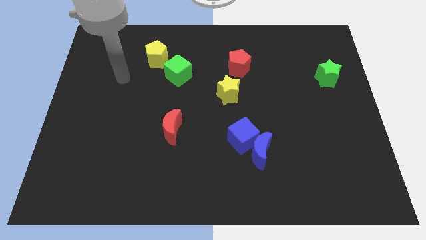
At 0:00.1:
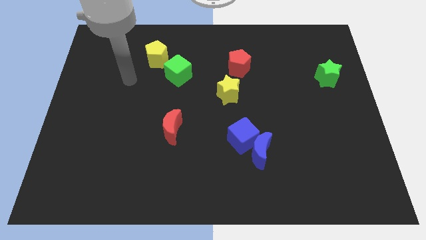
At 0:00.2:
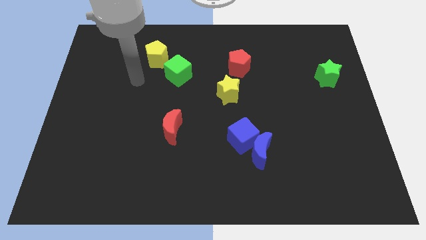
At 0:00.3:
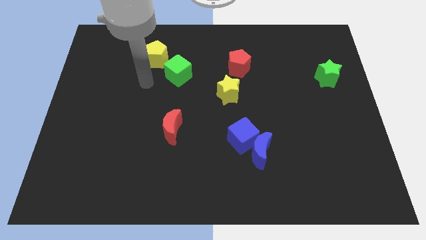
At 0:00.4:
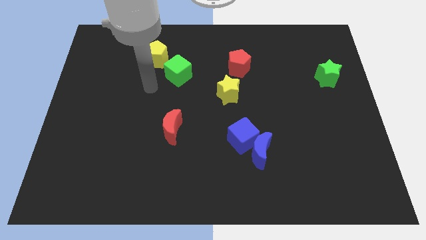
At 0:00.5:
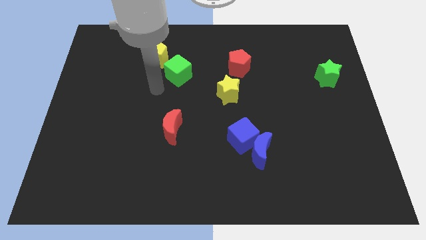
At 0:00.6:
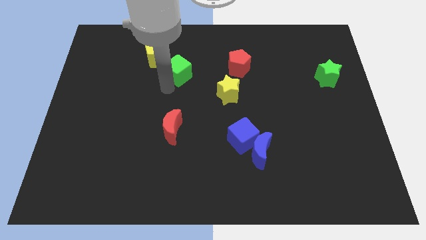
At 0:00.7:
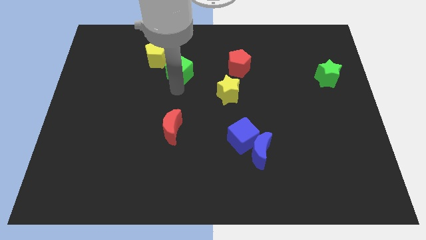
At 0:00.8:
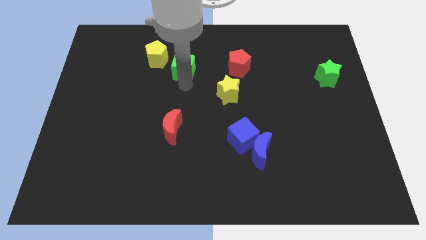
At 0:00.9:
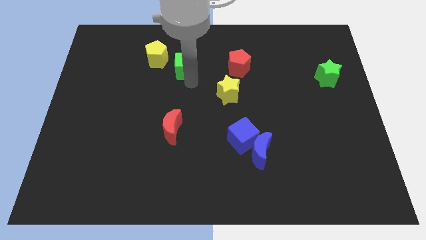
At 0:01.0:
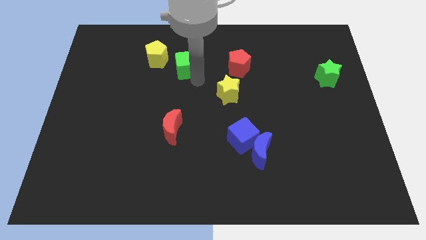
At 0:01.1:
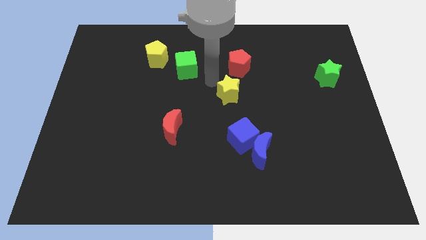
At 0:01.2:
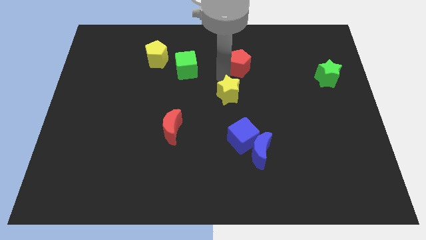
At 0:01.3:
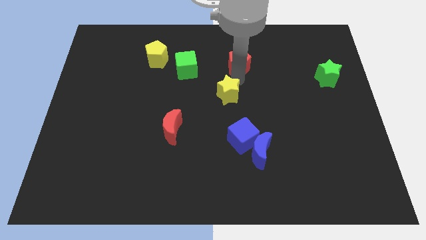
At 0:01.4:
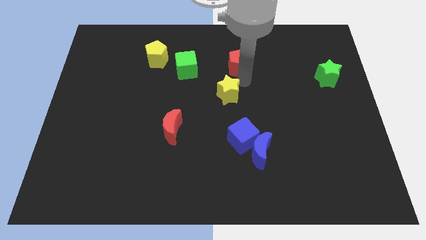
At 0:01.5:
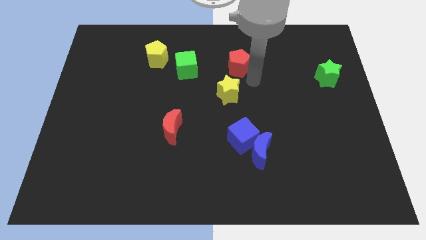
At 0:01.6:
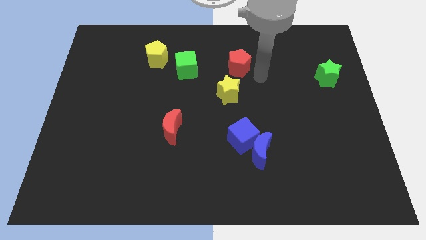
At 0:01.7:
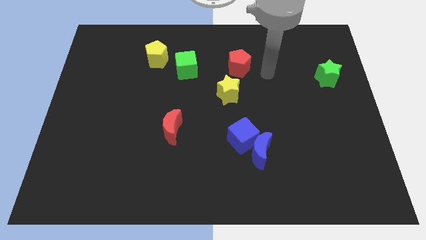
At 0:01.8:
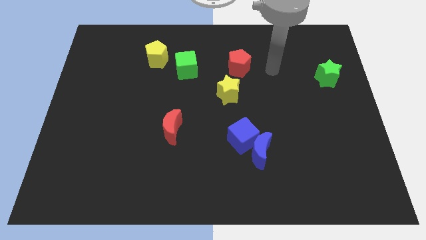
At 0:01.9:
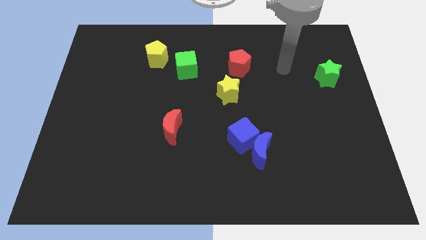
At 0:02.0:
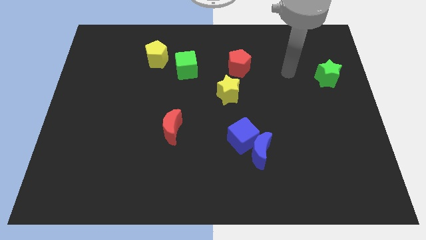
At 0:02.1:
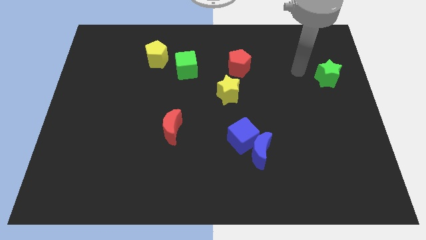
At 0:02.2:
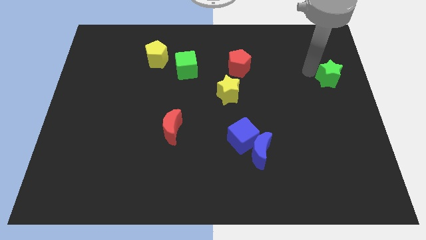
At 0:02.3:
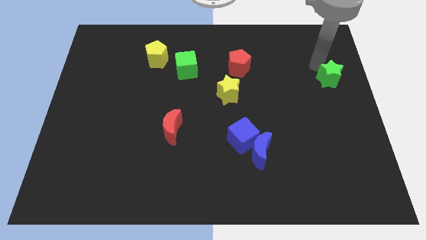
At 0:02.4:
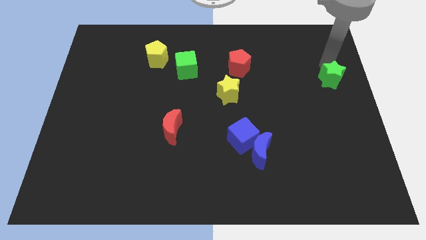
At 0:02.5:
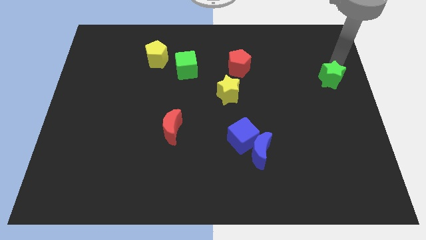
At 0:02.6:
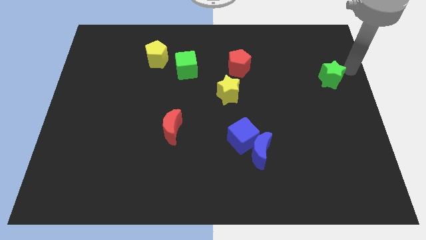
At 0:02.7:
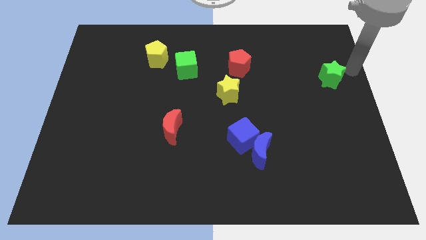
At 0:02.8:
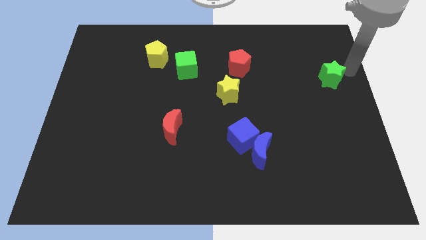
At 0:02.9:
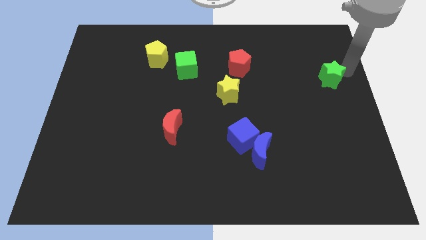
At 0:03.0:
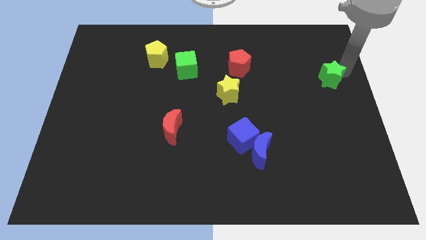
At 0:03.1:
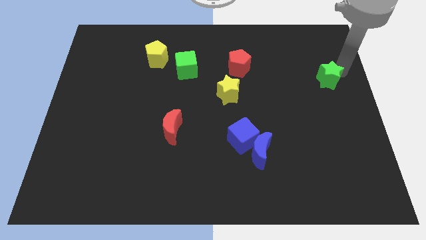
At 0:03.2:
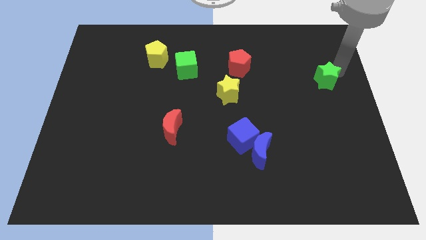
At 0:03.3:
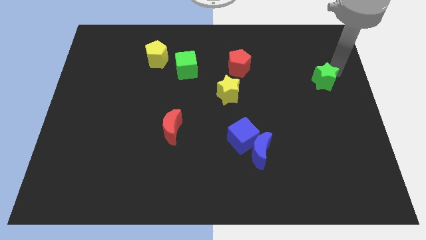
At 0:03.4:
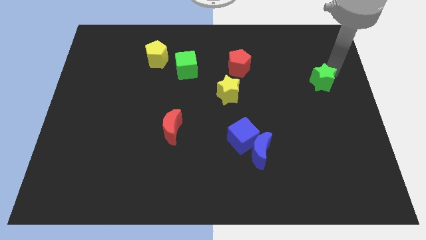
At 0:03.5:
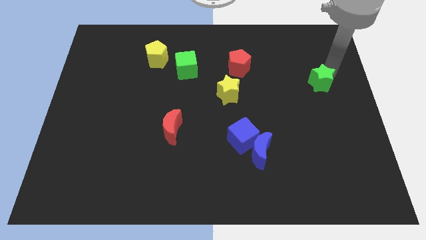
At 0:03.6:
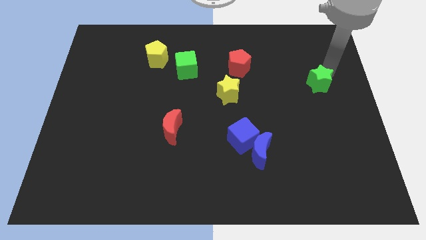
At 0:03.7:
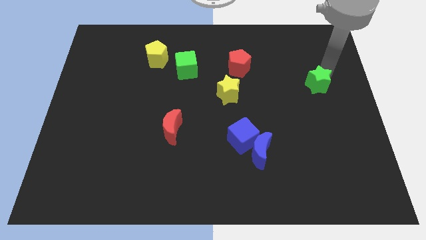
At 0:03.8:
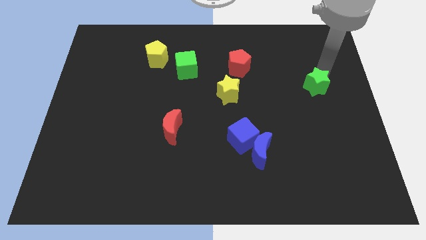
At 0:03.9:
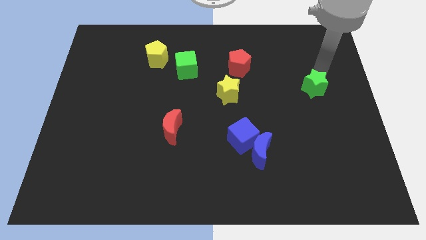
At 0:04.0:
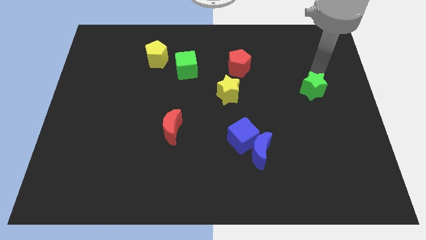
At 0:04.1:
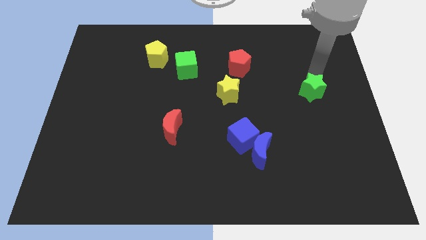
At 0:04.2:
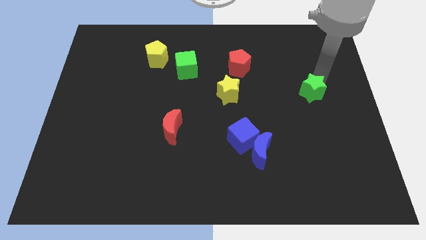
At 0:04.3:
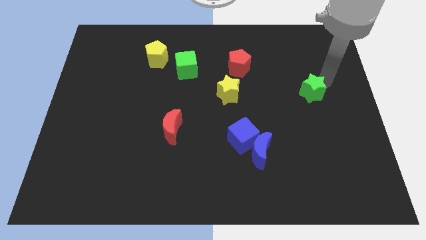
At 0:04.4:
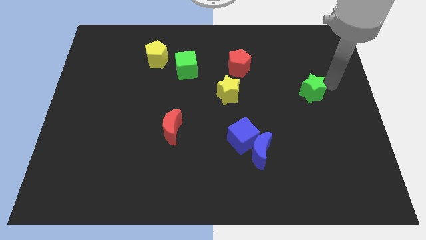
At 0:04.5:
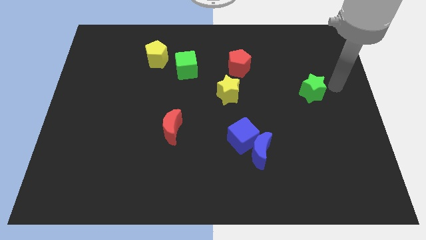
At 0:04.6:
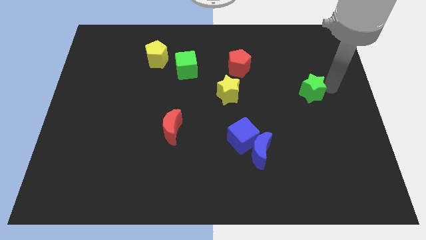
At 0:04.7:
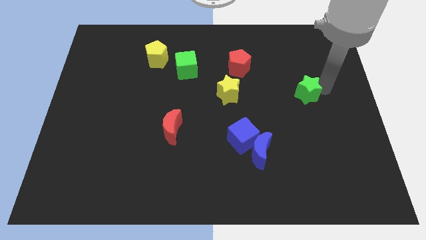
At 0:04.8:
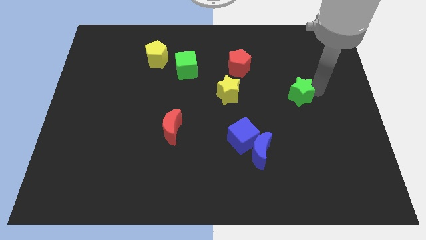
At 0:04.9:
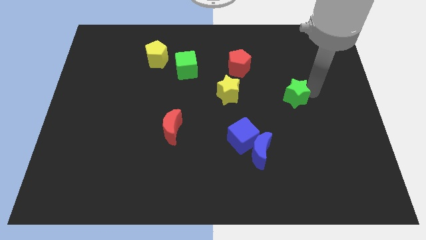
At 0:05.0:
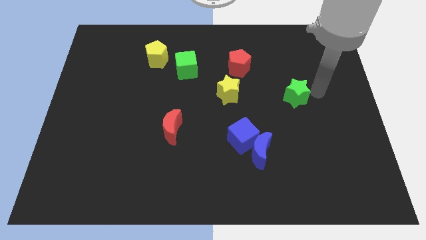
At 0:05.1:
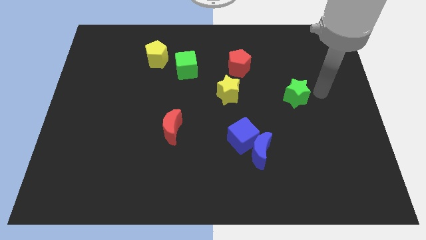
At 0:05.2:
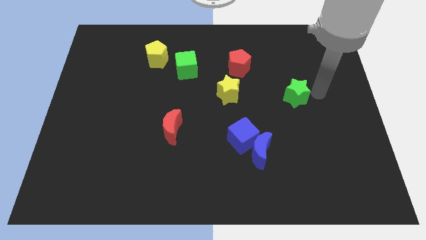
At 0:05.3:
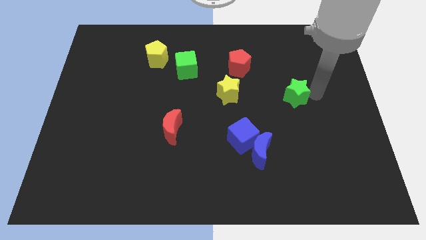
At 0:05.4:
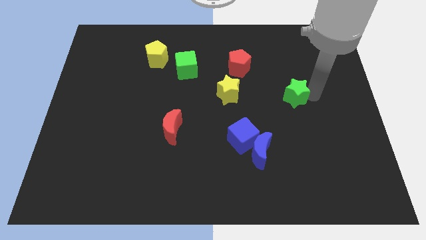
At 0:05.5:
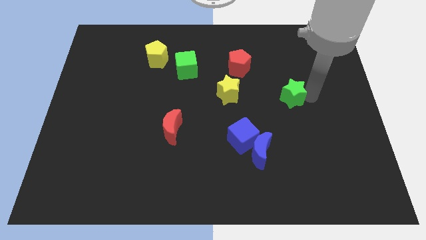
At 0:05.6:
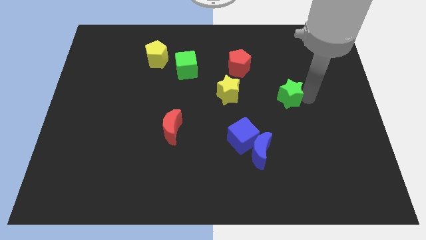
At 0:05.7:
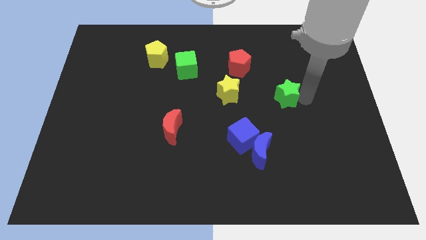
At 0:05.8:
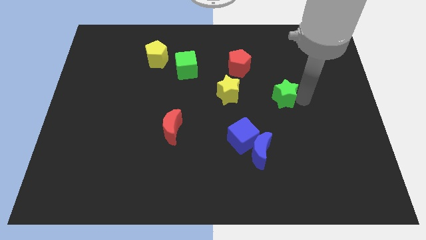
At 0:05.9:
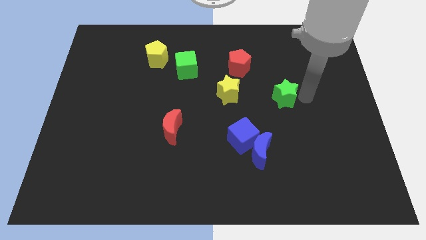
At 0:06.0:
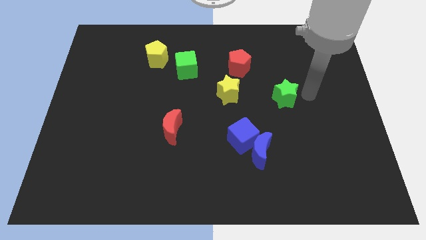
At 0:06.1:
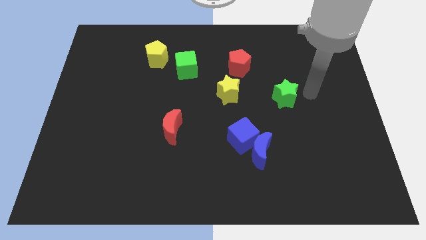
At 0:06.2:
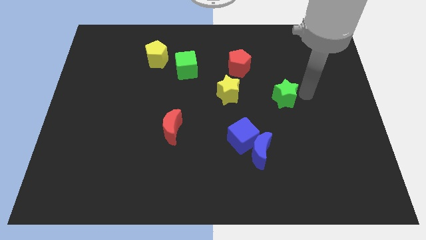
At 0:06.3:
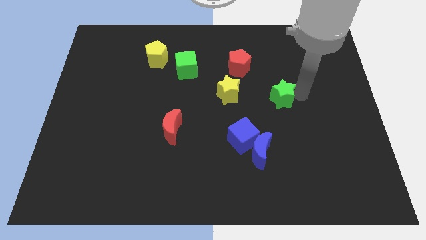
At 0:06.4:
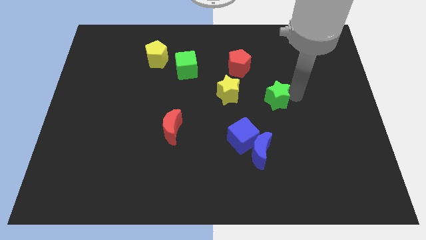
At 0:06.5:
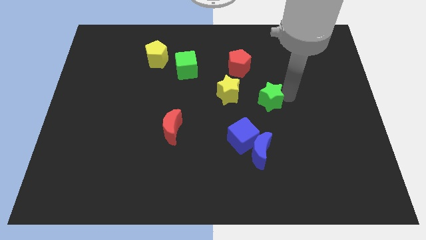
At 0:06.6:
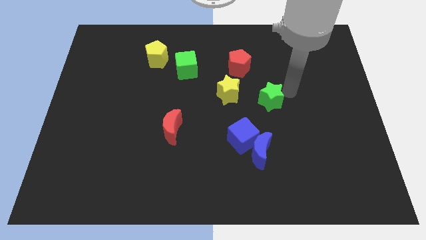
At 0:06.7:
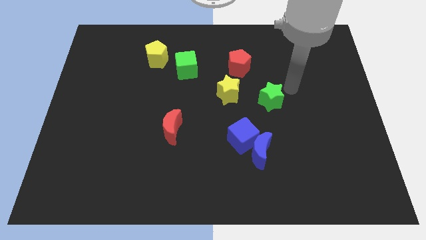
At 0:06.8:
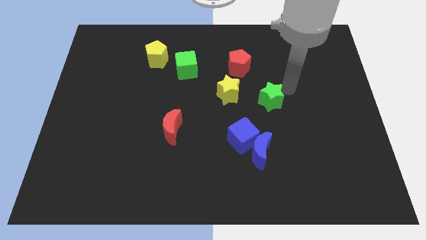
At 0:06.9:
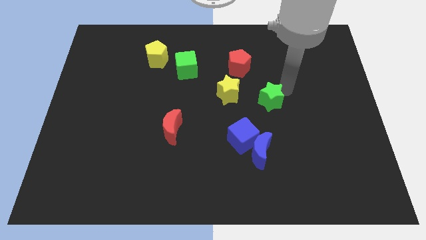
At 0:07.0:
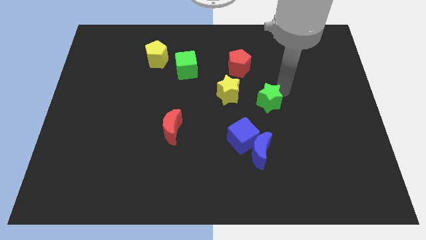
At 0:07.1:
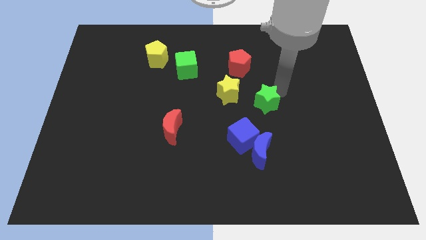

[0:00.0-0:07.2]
slide the green star to the bottom right side of the yellow star

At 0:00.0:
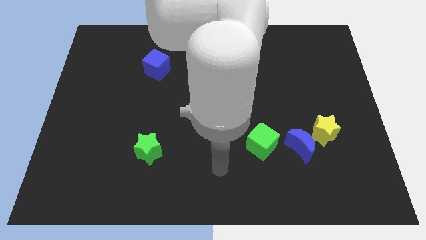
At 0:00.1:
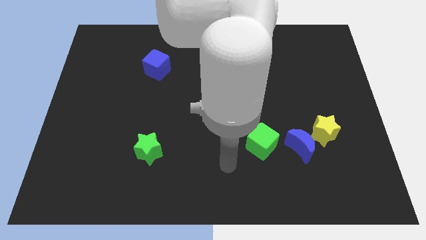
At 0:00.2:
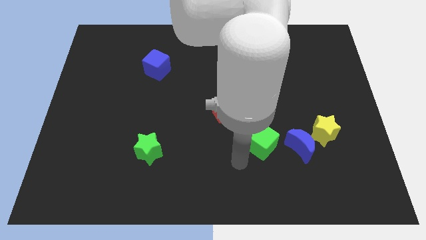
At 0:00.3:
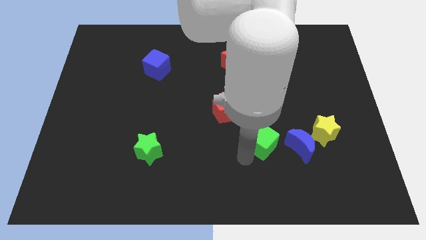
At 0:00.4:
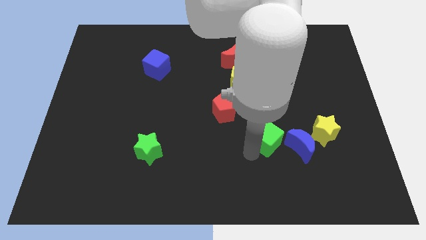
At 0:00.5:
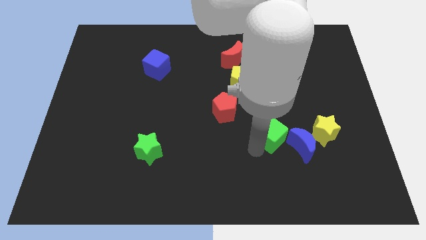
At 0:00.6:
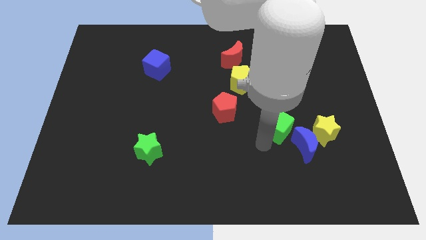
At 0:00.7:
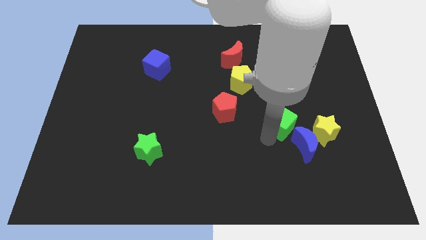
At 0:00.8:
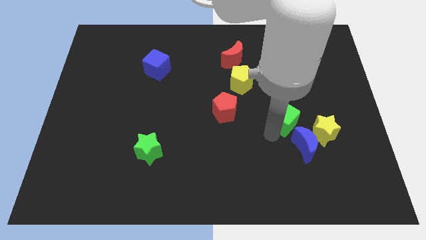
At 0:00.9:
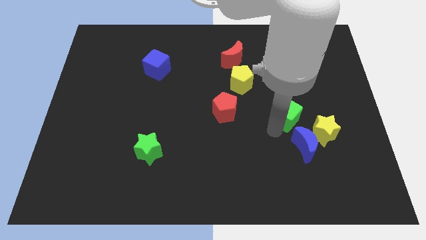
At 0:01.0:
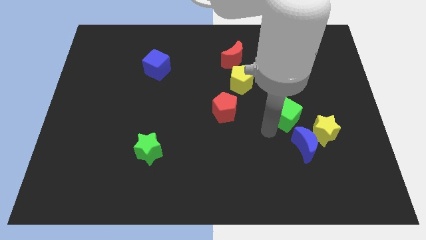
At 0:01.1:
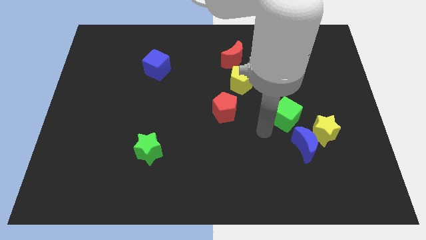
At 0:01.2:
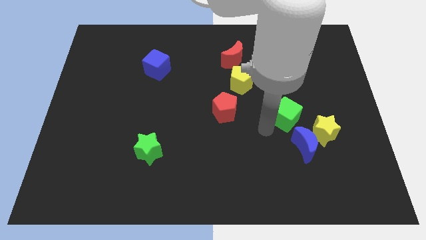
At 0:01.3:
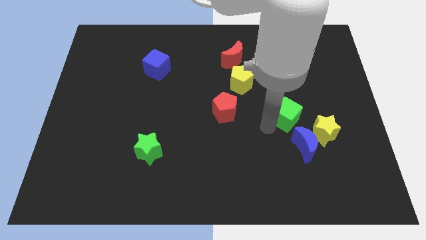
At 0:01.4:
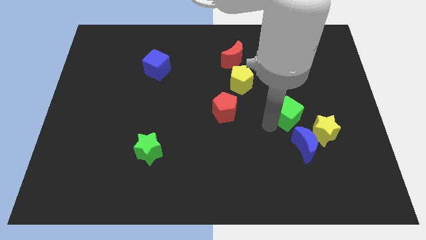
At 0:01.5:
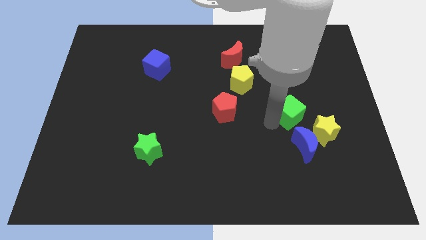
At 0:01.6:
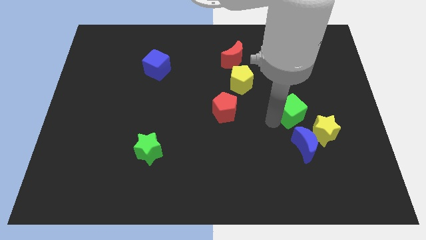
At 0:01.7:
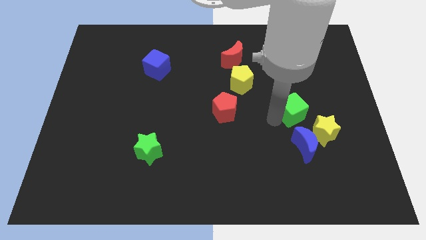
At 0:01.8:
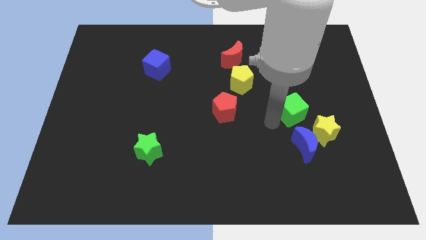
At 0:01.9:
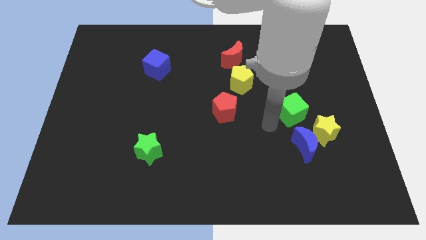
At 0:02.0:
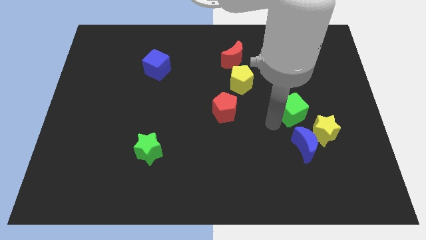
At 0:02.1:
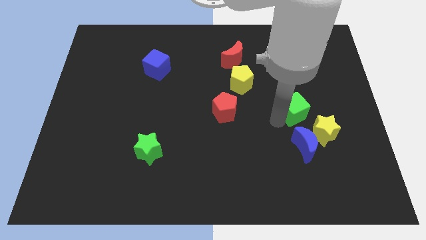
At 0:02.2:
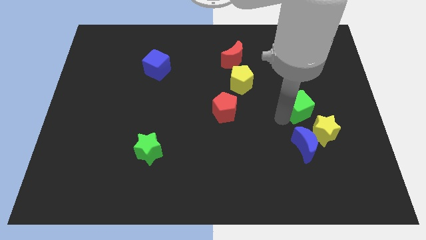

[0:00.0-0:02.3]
push the green cube to the top side of the yellow star
